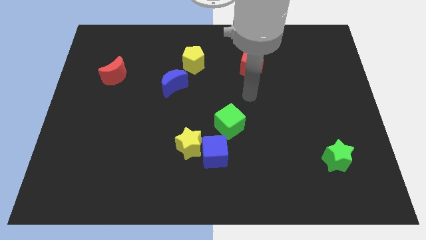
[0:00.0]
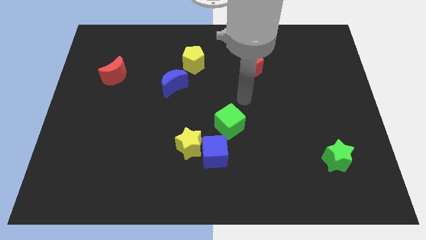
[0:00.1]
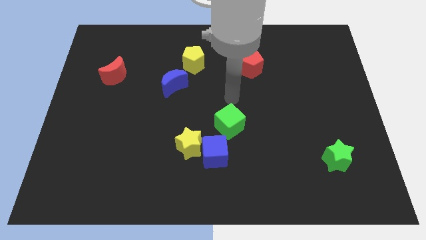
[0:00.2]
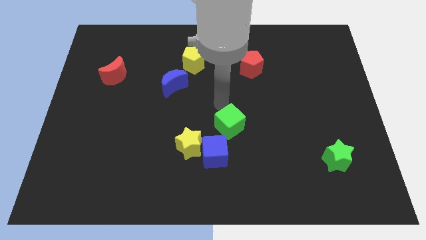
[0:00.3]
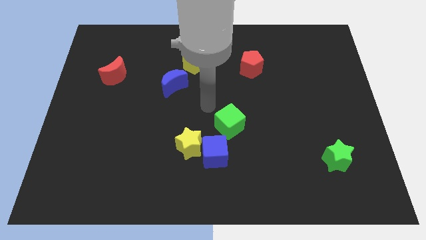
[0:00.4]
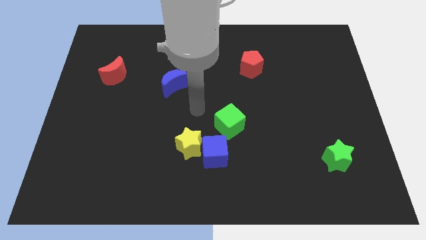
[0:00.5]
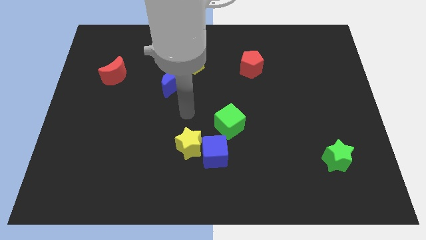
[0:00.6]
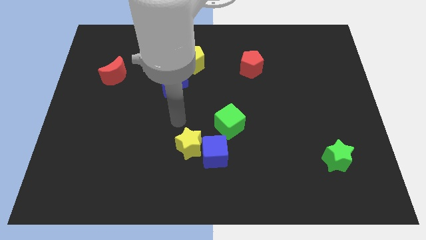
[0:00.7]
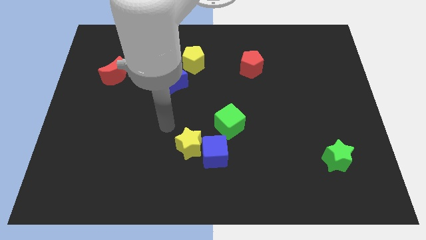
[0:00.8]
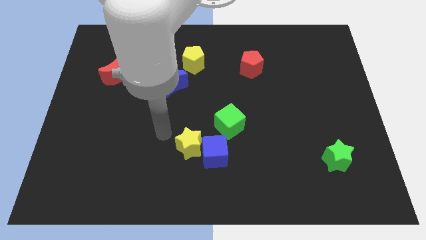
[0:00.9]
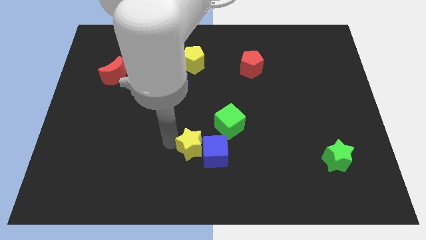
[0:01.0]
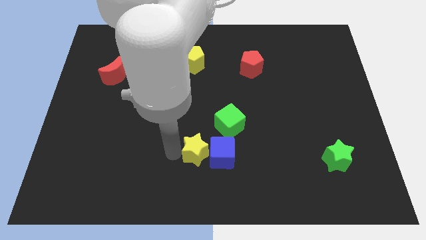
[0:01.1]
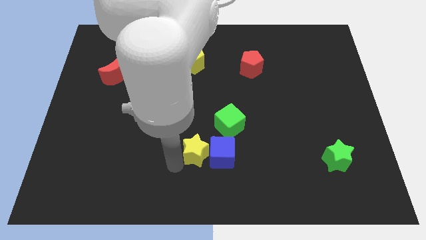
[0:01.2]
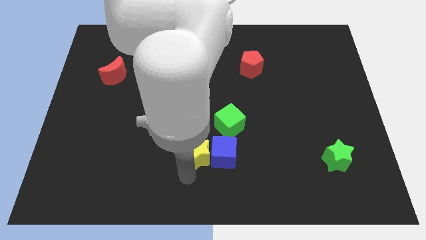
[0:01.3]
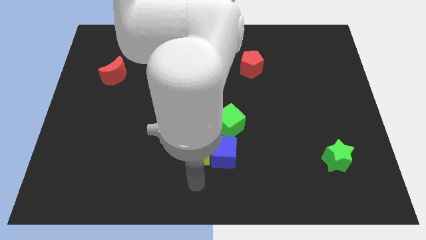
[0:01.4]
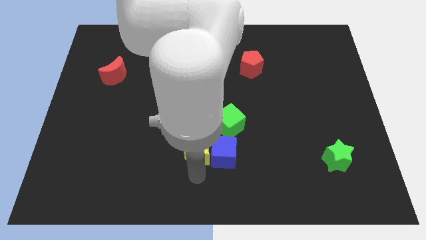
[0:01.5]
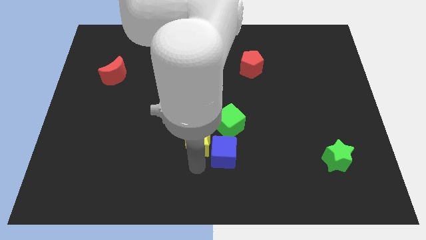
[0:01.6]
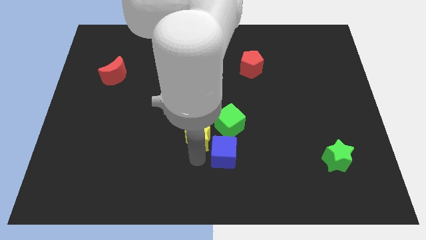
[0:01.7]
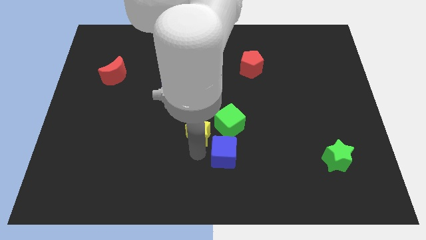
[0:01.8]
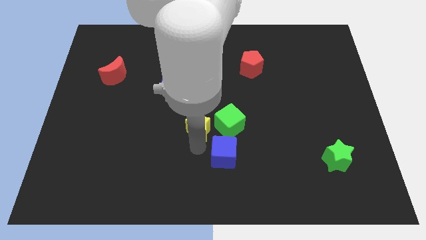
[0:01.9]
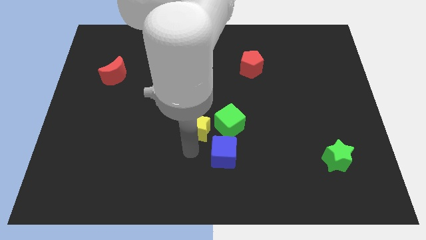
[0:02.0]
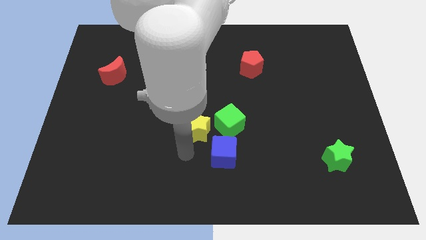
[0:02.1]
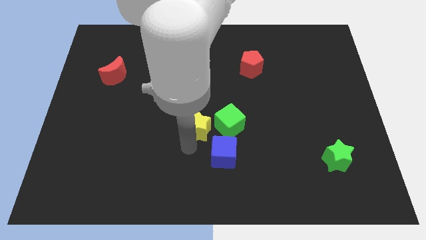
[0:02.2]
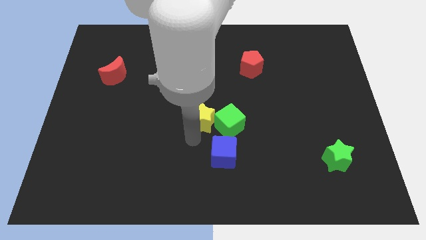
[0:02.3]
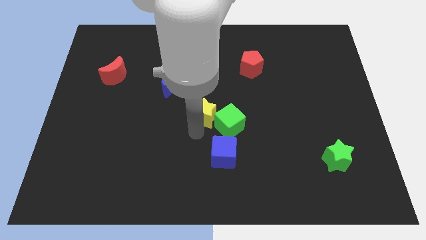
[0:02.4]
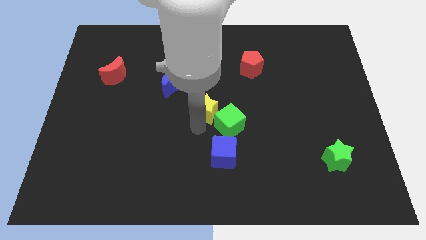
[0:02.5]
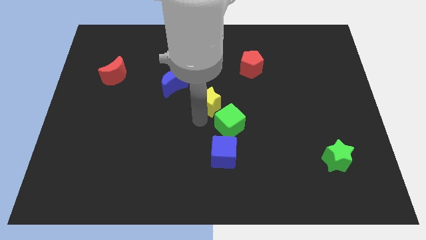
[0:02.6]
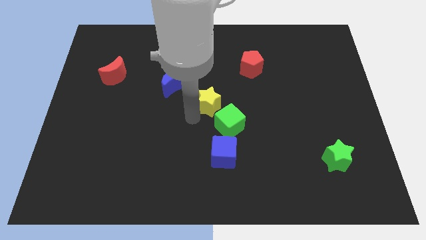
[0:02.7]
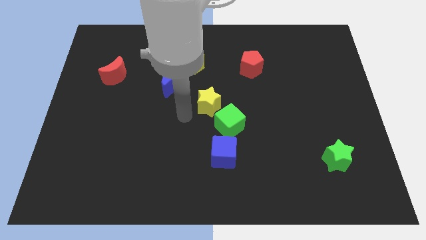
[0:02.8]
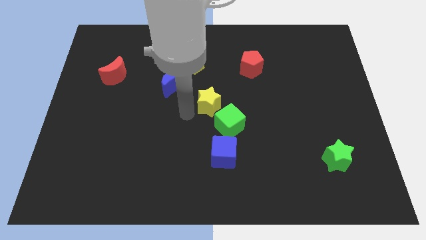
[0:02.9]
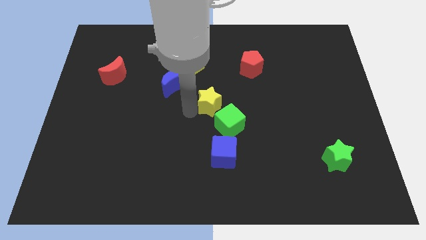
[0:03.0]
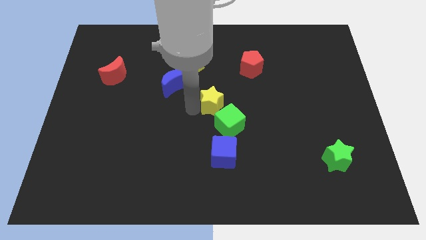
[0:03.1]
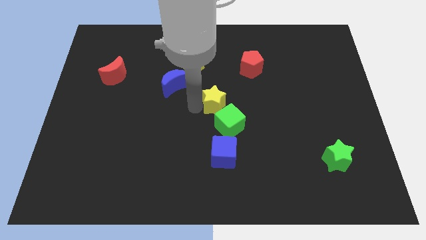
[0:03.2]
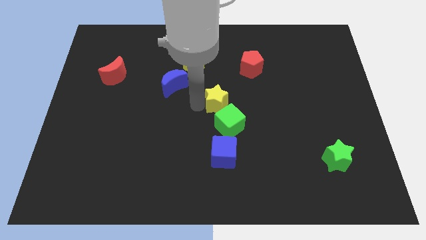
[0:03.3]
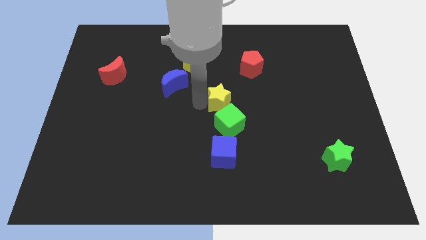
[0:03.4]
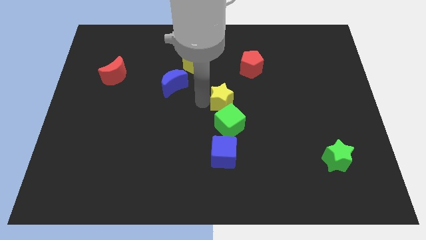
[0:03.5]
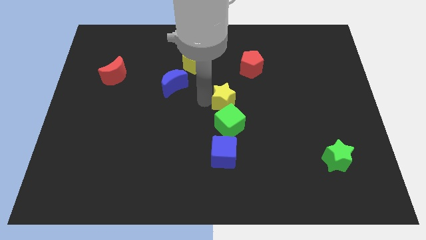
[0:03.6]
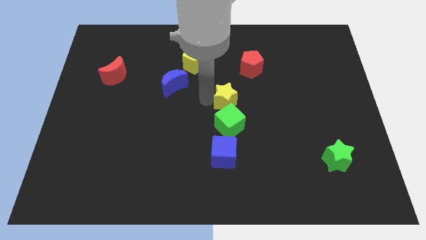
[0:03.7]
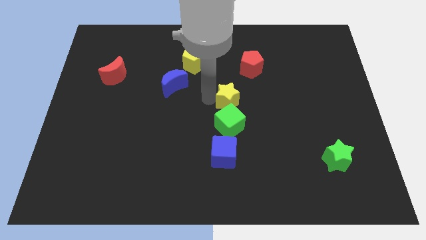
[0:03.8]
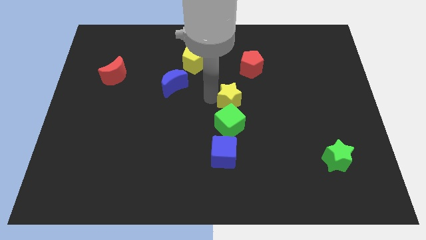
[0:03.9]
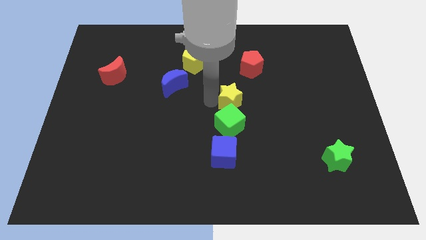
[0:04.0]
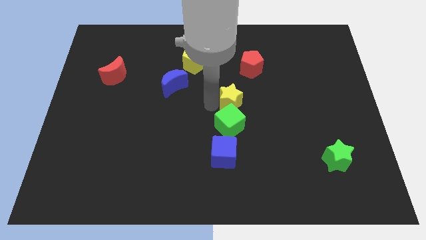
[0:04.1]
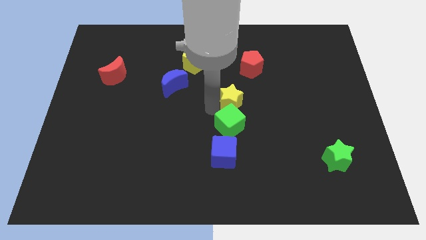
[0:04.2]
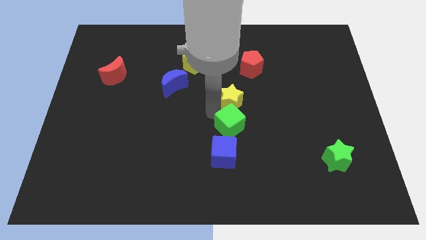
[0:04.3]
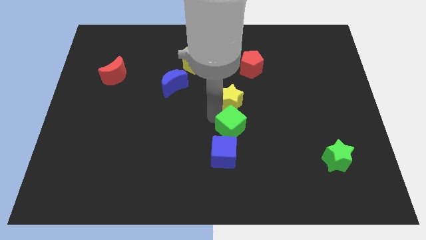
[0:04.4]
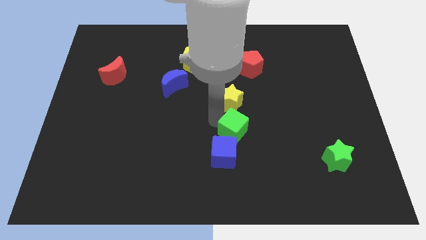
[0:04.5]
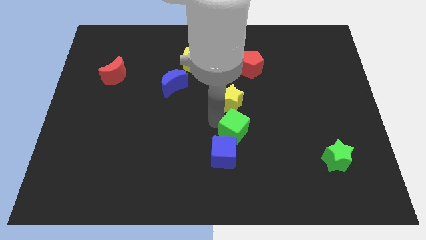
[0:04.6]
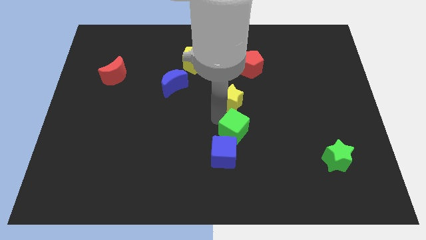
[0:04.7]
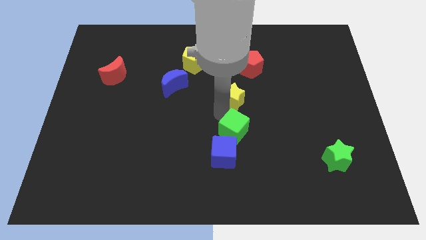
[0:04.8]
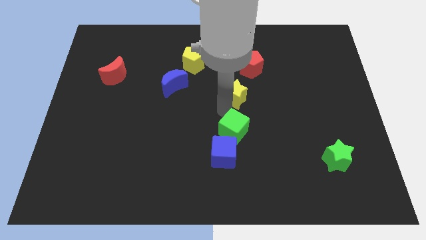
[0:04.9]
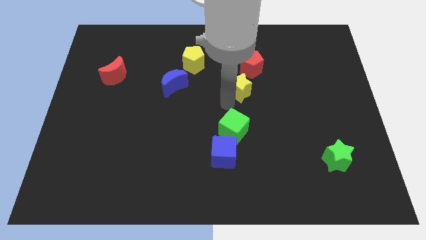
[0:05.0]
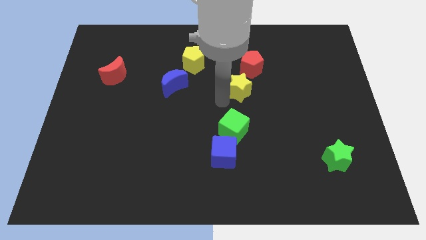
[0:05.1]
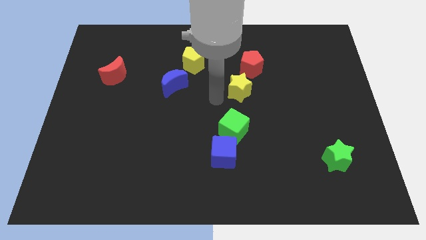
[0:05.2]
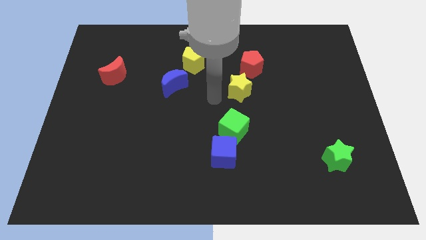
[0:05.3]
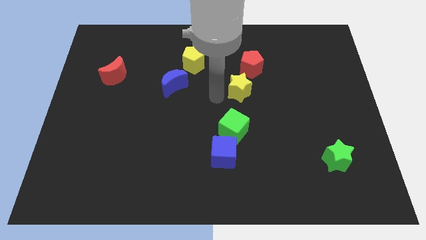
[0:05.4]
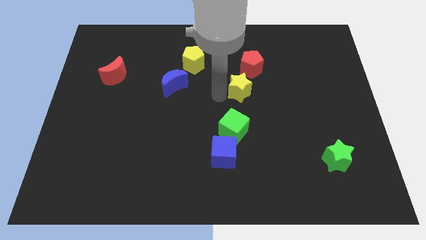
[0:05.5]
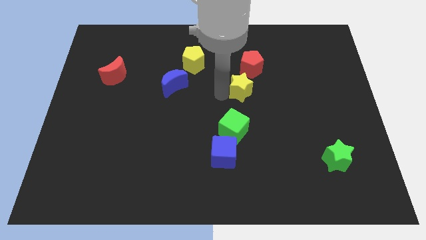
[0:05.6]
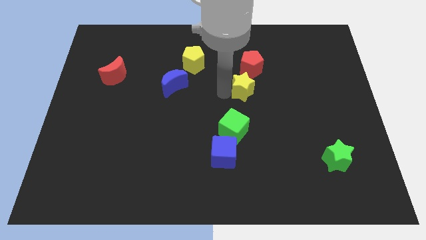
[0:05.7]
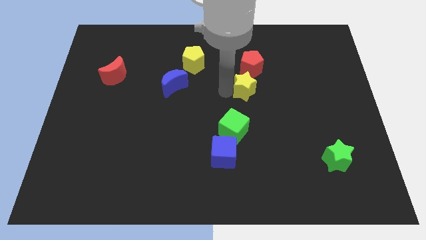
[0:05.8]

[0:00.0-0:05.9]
slide the yellow star upwards and to the right diagonally

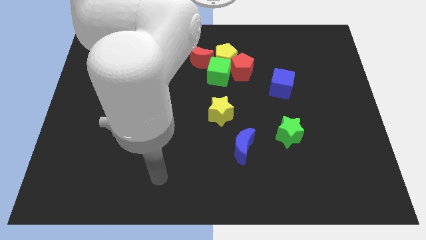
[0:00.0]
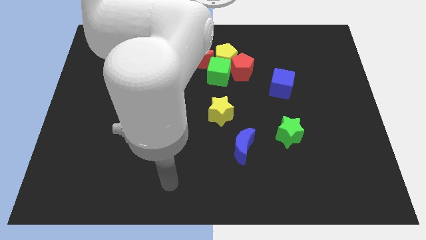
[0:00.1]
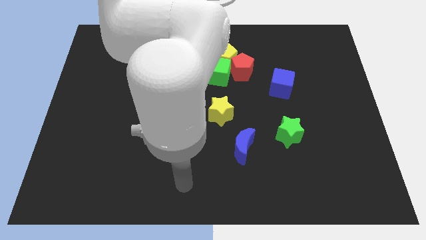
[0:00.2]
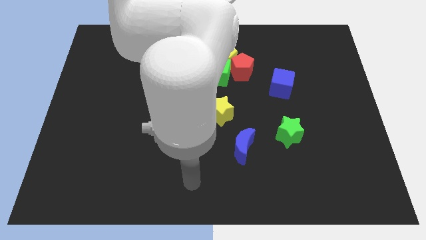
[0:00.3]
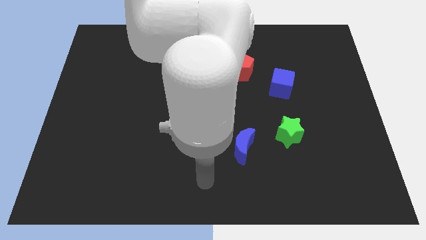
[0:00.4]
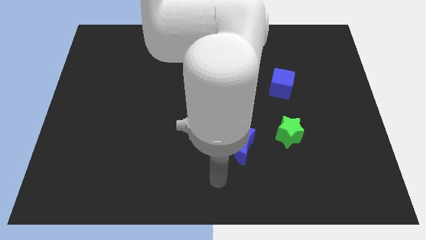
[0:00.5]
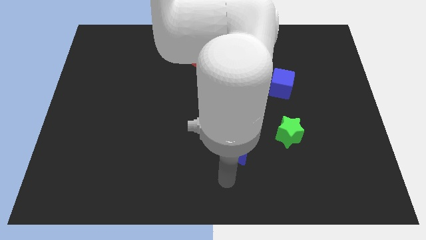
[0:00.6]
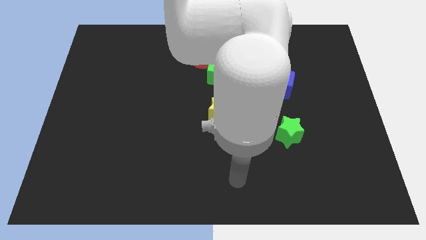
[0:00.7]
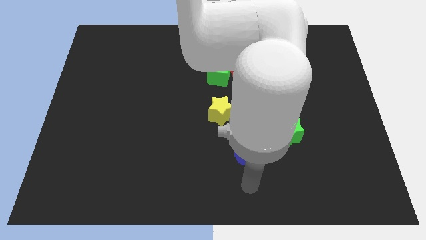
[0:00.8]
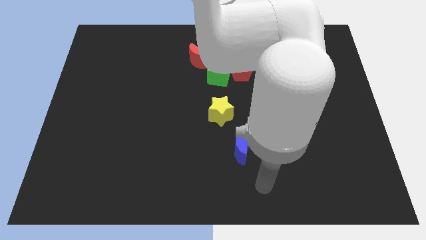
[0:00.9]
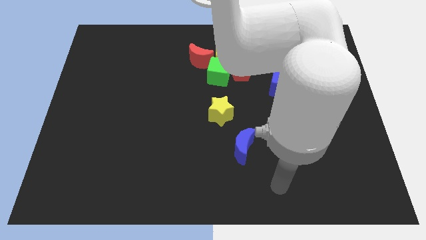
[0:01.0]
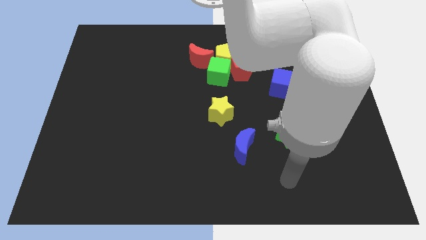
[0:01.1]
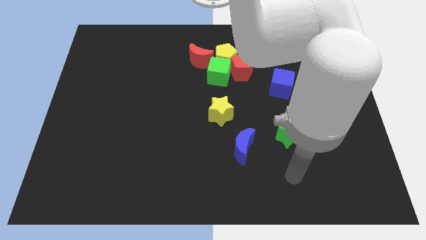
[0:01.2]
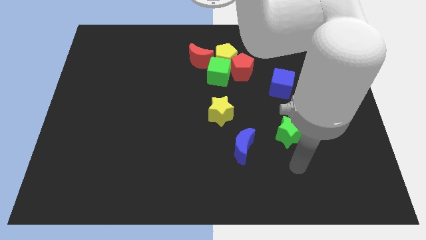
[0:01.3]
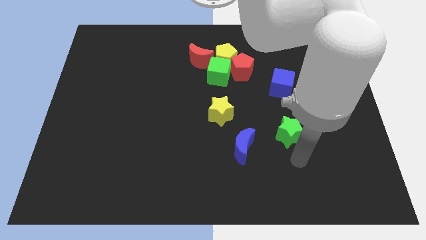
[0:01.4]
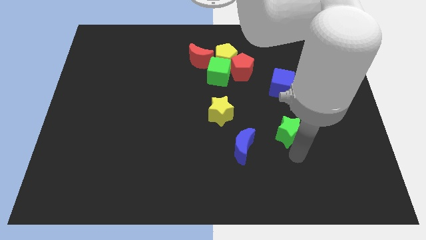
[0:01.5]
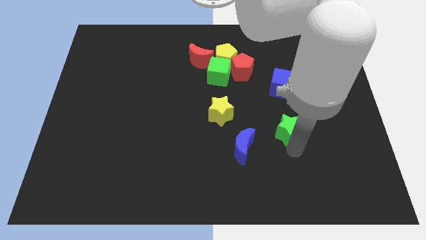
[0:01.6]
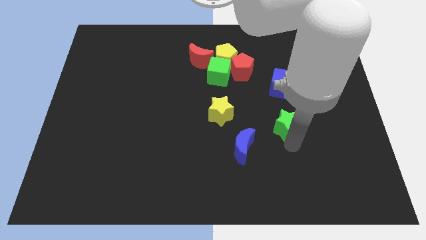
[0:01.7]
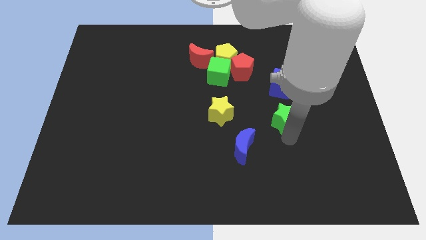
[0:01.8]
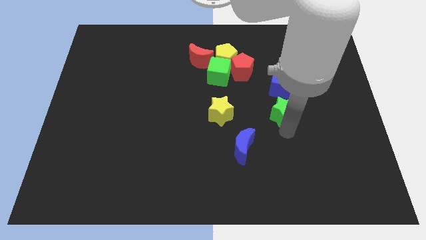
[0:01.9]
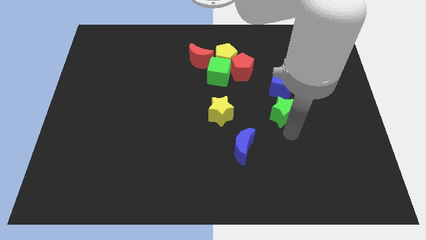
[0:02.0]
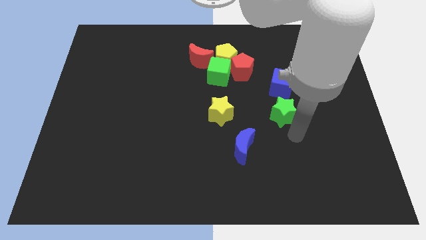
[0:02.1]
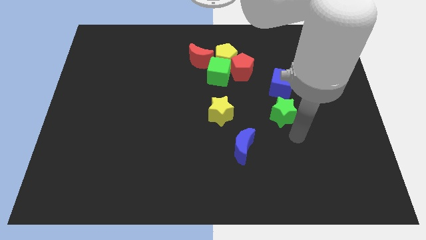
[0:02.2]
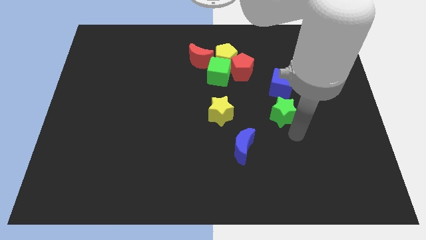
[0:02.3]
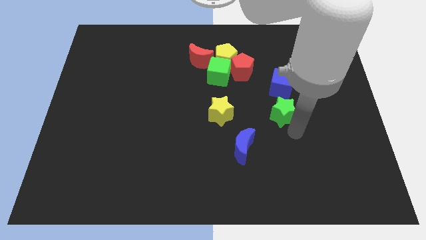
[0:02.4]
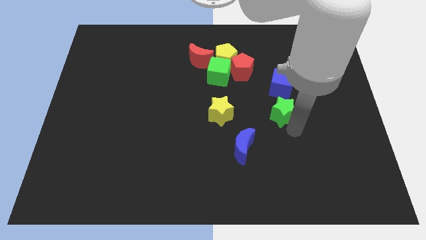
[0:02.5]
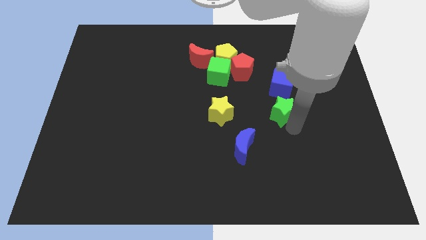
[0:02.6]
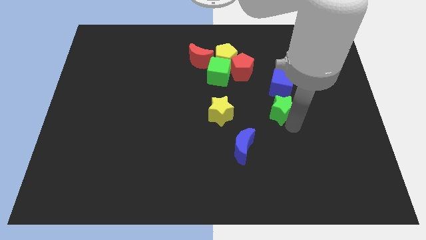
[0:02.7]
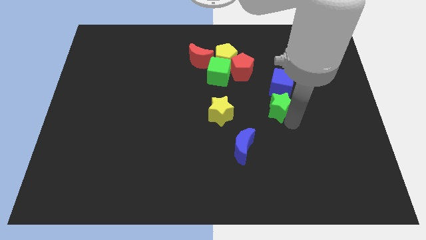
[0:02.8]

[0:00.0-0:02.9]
slightly move the green star up
